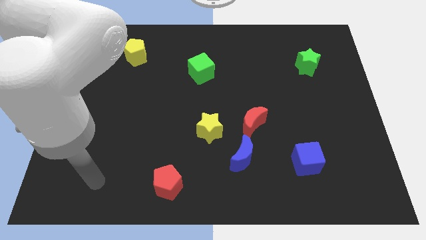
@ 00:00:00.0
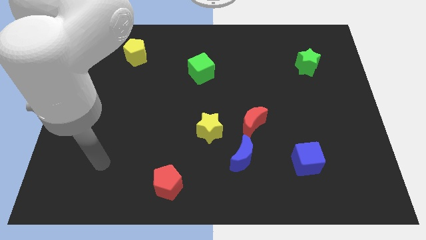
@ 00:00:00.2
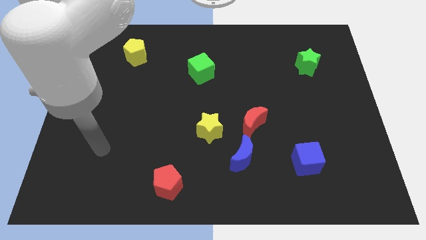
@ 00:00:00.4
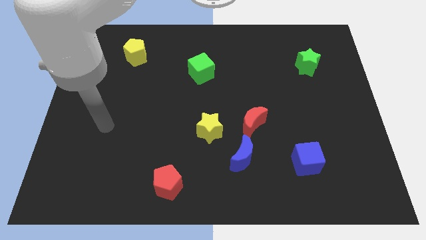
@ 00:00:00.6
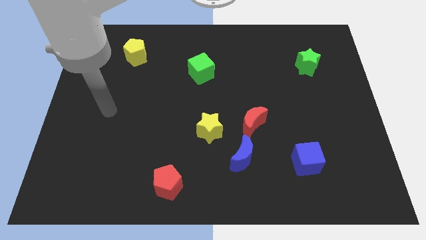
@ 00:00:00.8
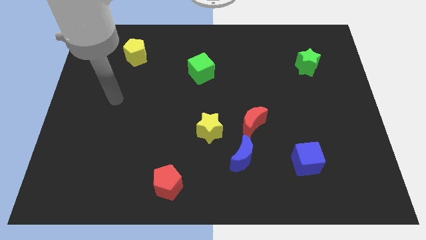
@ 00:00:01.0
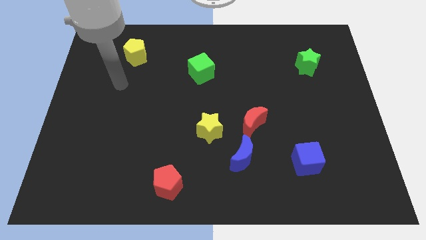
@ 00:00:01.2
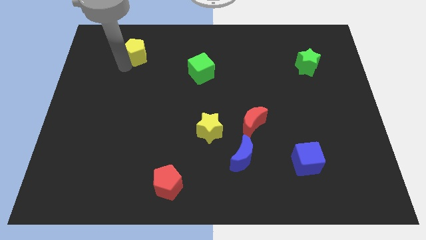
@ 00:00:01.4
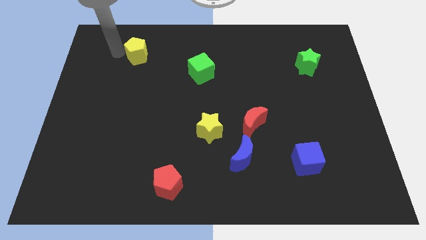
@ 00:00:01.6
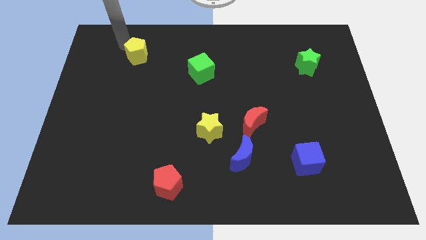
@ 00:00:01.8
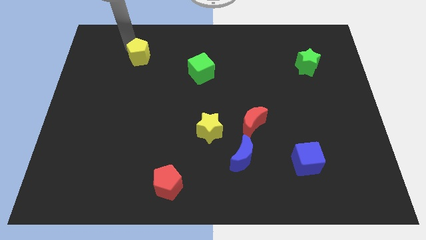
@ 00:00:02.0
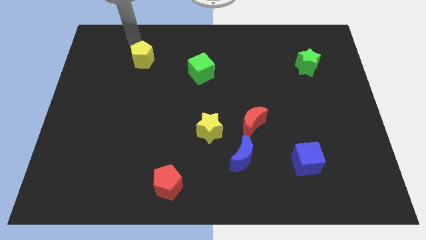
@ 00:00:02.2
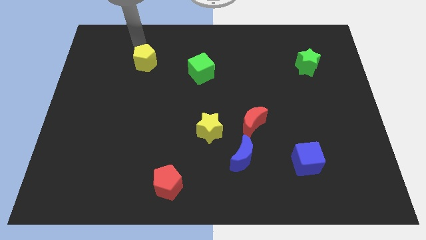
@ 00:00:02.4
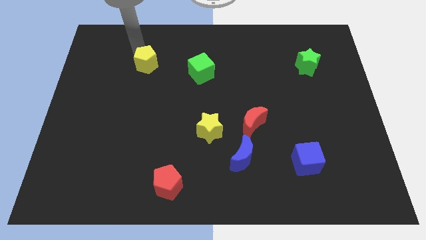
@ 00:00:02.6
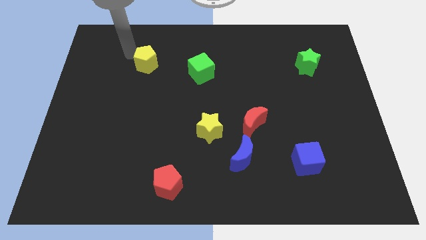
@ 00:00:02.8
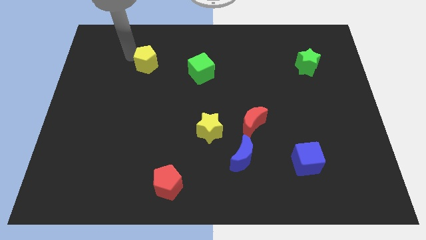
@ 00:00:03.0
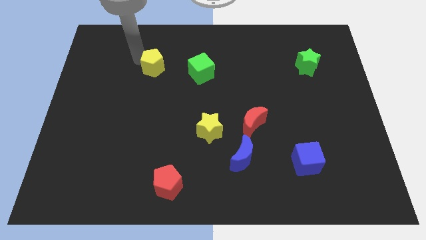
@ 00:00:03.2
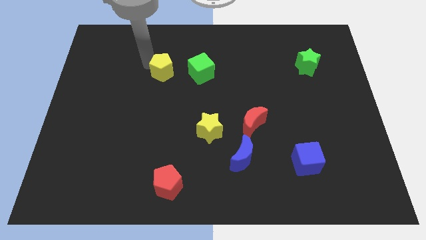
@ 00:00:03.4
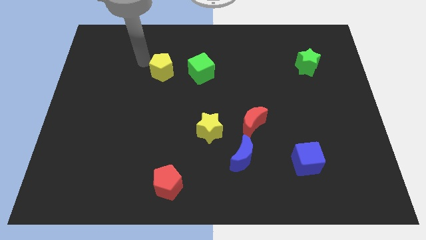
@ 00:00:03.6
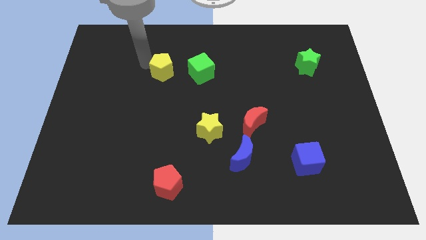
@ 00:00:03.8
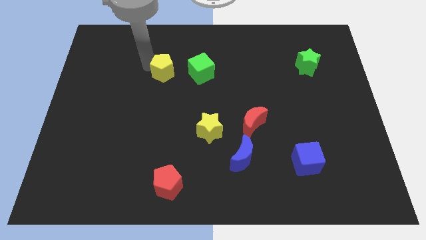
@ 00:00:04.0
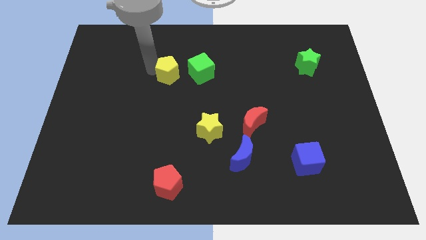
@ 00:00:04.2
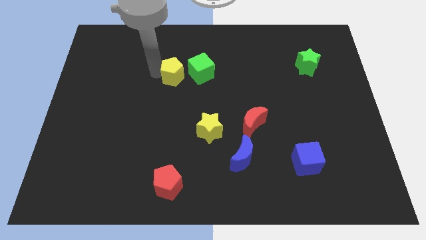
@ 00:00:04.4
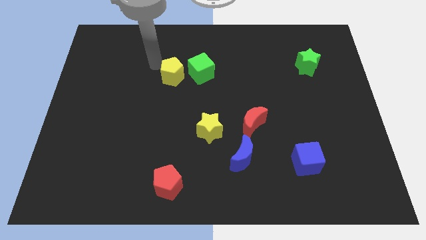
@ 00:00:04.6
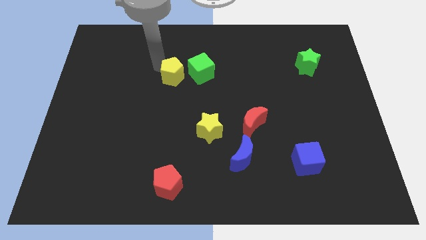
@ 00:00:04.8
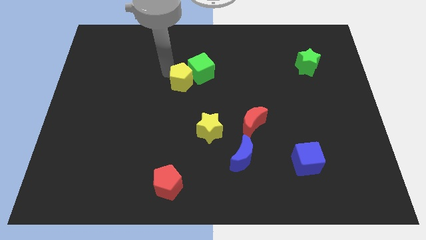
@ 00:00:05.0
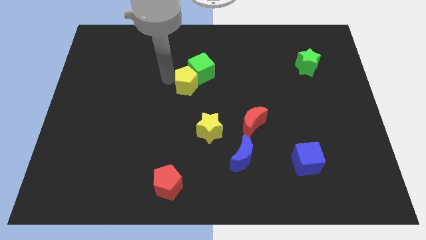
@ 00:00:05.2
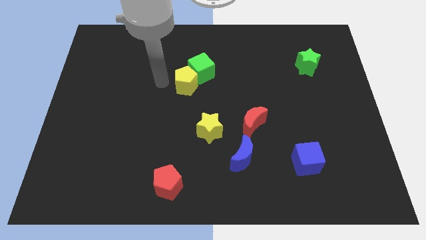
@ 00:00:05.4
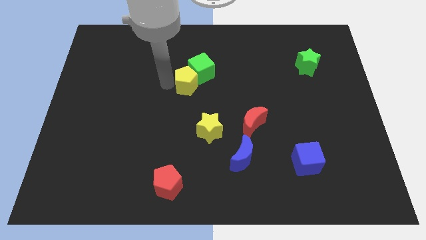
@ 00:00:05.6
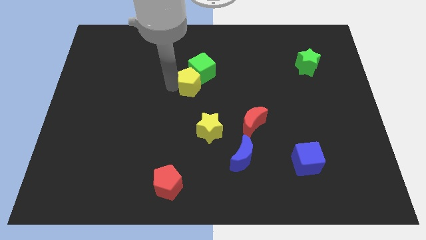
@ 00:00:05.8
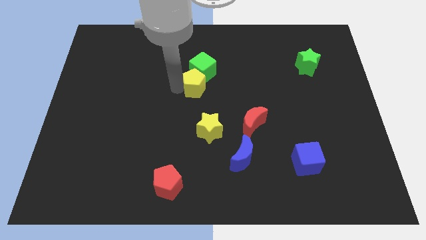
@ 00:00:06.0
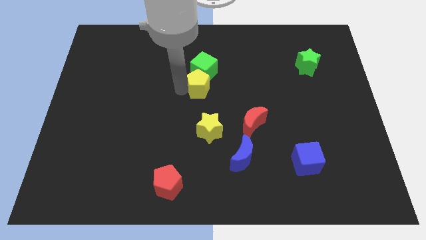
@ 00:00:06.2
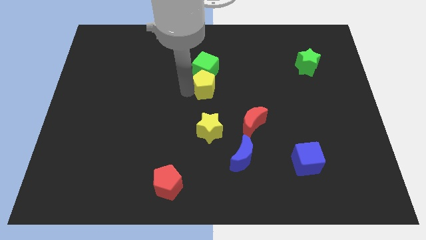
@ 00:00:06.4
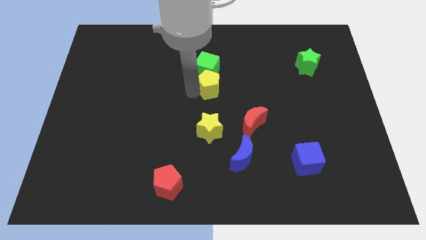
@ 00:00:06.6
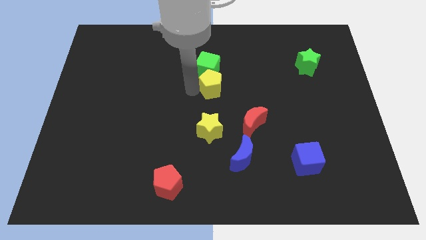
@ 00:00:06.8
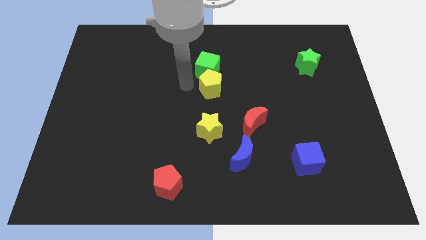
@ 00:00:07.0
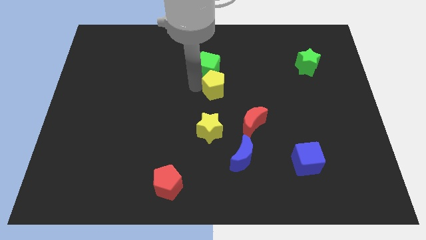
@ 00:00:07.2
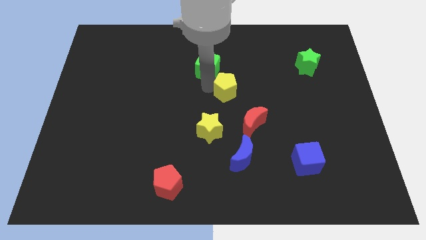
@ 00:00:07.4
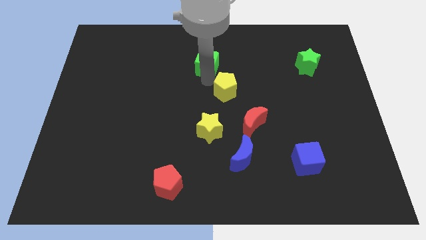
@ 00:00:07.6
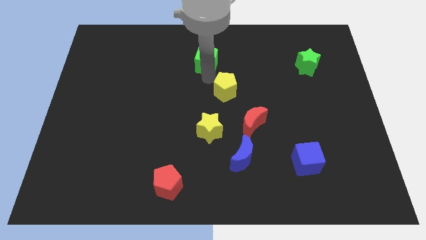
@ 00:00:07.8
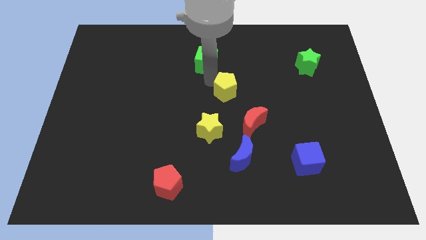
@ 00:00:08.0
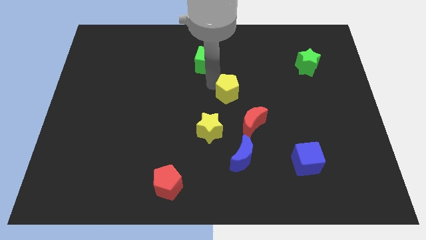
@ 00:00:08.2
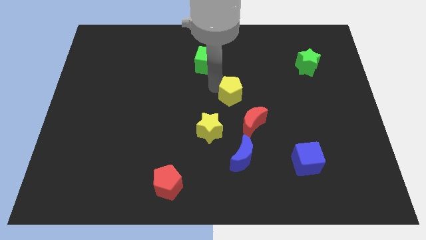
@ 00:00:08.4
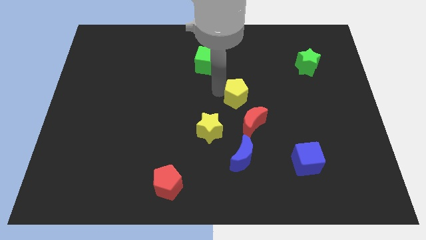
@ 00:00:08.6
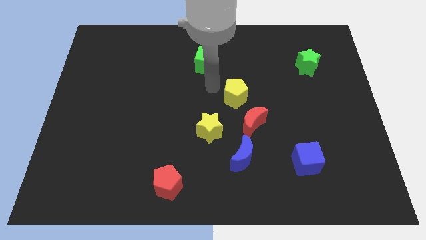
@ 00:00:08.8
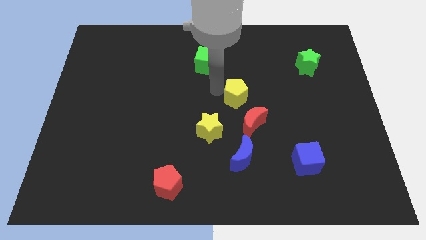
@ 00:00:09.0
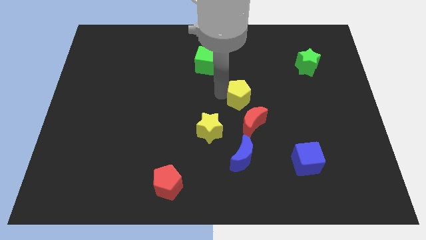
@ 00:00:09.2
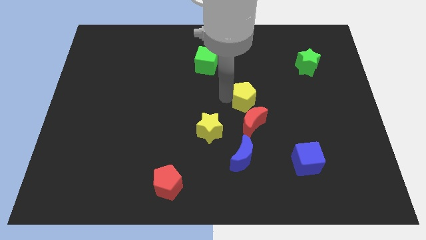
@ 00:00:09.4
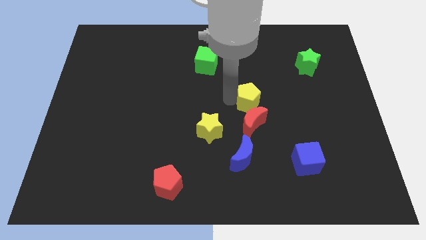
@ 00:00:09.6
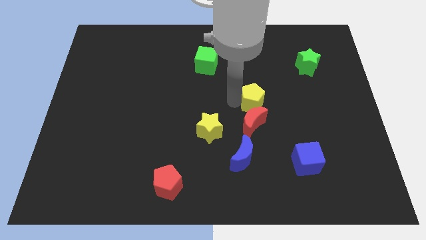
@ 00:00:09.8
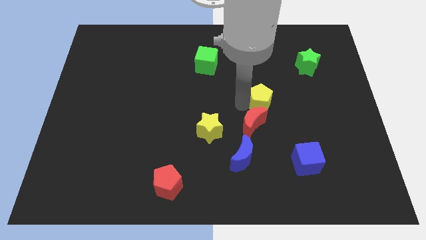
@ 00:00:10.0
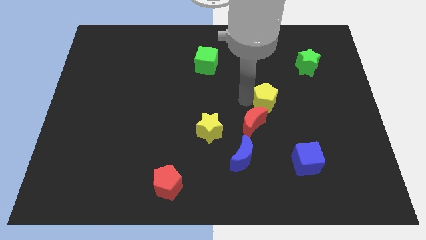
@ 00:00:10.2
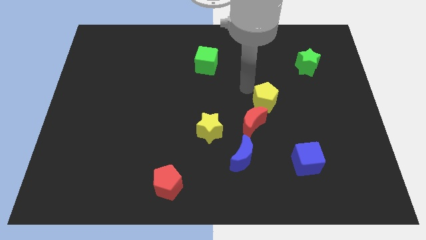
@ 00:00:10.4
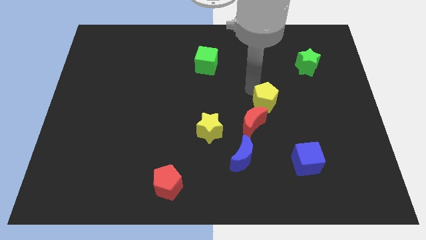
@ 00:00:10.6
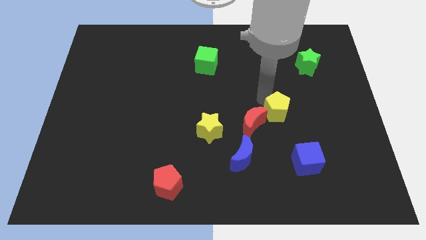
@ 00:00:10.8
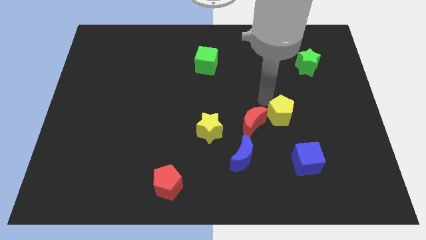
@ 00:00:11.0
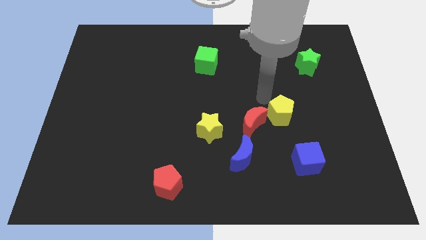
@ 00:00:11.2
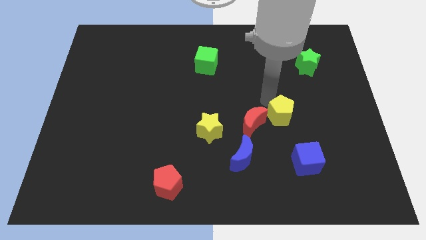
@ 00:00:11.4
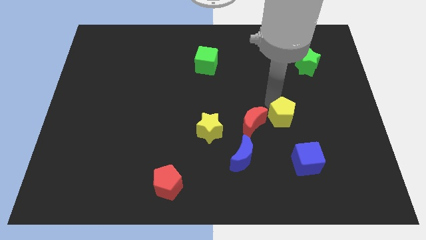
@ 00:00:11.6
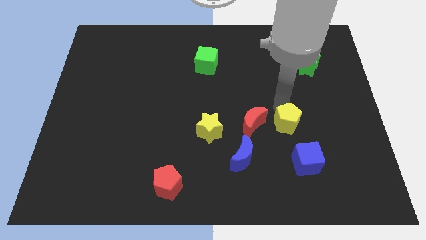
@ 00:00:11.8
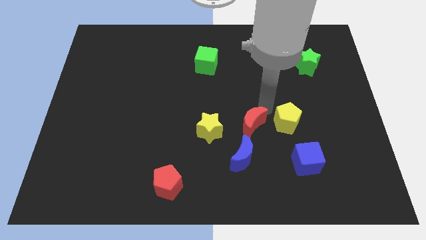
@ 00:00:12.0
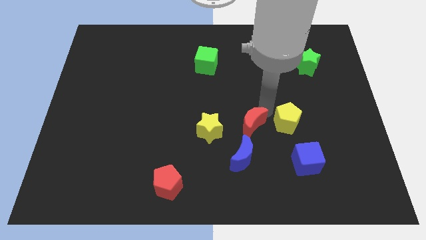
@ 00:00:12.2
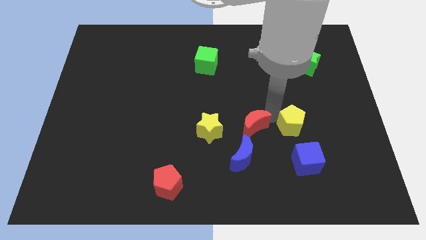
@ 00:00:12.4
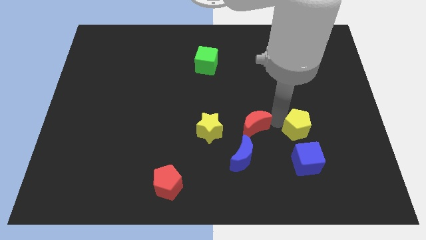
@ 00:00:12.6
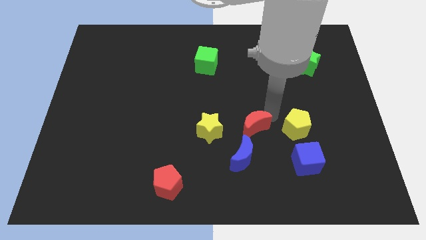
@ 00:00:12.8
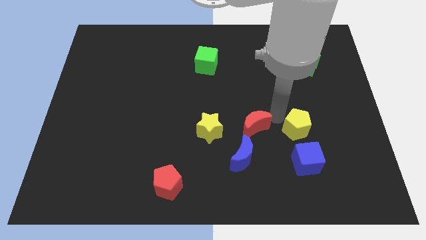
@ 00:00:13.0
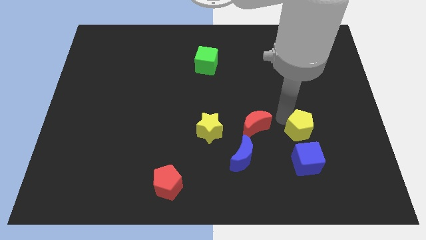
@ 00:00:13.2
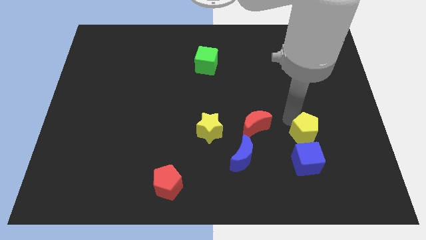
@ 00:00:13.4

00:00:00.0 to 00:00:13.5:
move the yellow pentagon to the top right side of the blue cube

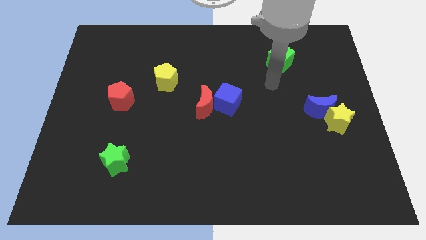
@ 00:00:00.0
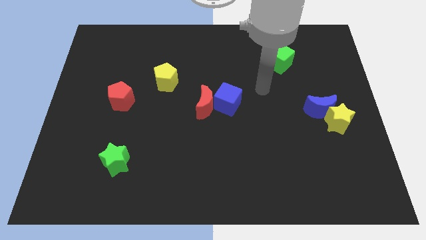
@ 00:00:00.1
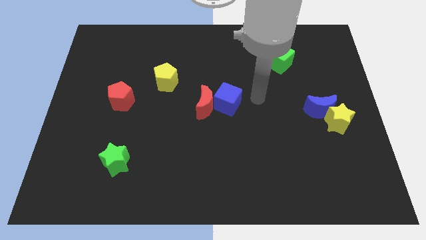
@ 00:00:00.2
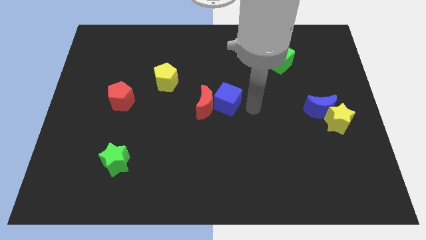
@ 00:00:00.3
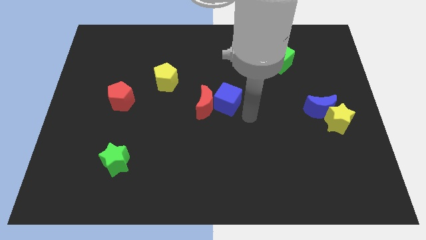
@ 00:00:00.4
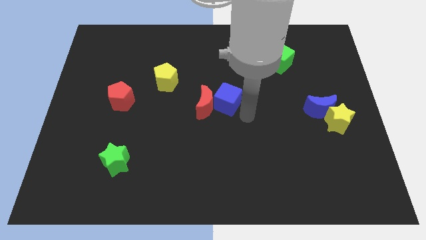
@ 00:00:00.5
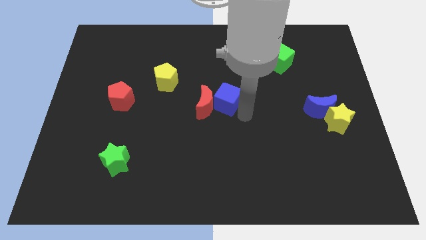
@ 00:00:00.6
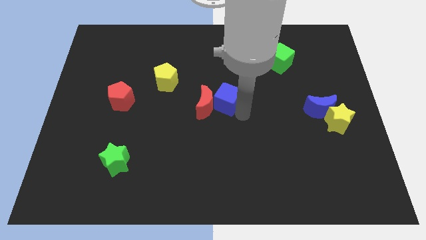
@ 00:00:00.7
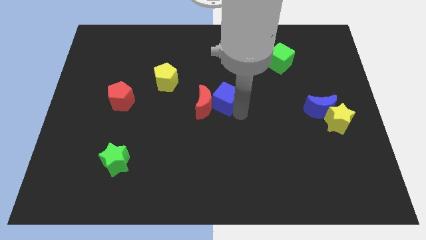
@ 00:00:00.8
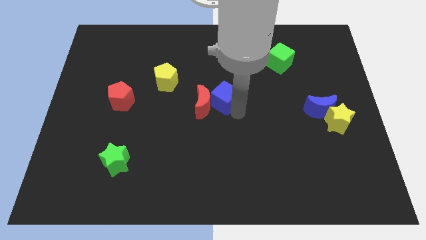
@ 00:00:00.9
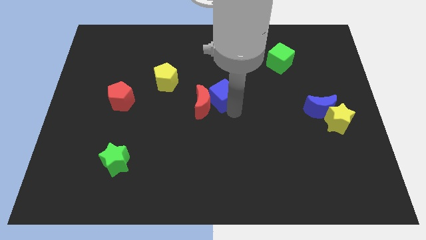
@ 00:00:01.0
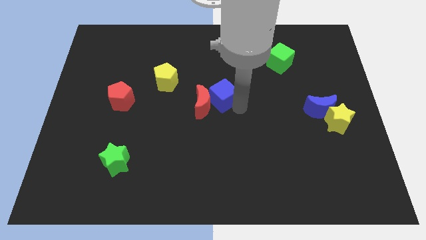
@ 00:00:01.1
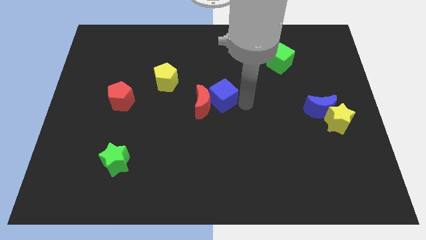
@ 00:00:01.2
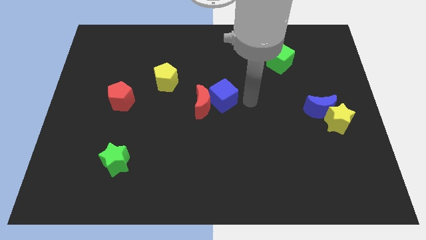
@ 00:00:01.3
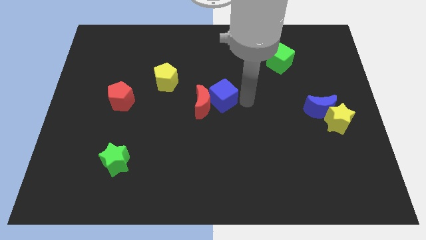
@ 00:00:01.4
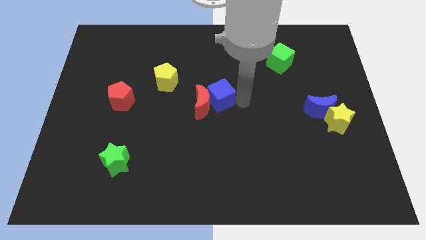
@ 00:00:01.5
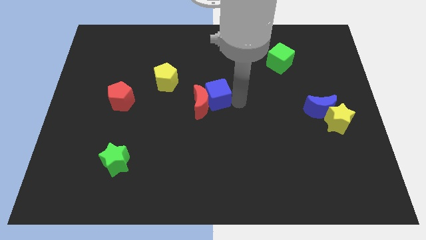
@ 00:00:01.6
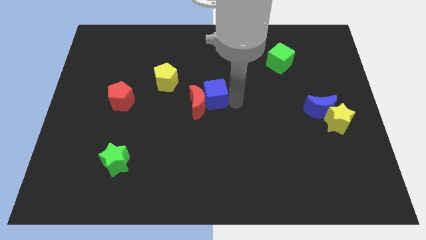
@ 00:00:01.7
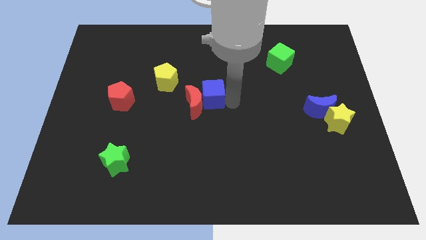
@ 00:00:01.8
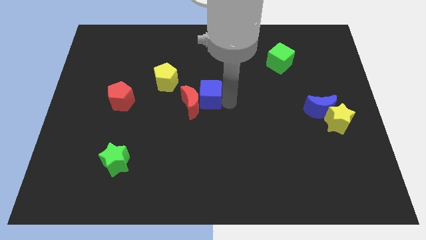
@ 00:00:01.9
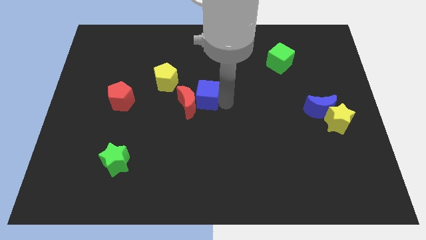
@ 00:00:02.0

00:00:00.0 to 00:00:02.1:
slide the blue cube to the bottom right of the yellow pentagon
